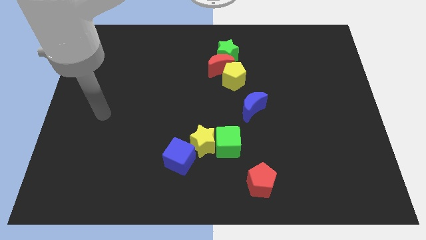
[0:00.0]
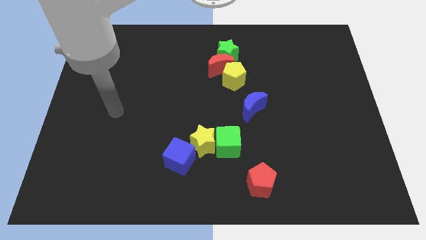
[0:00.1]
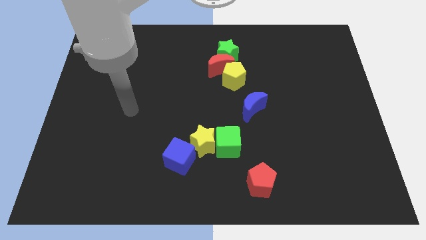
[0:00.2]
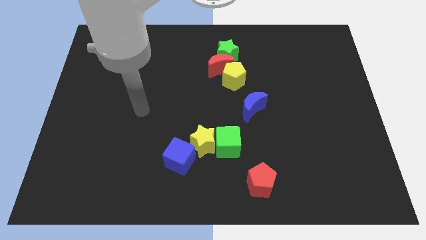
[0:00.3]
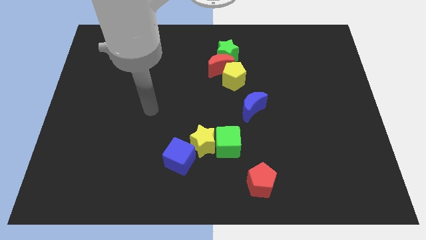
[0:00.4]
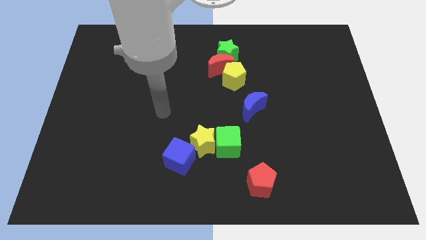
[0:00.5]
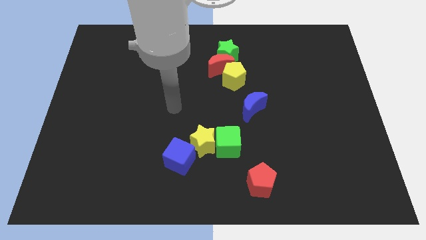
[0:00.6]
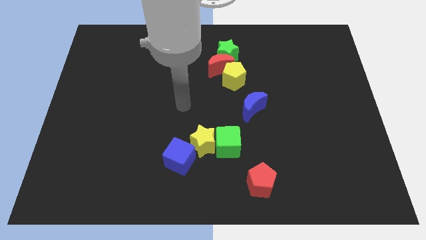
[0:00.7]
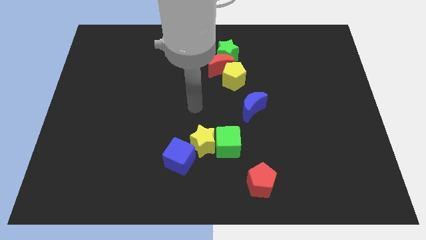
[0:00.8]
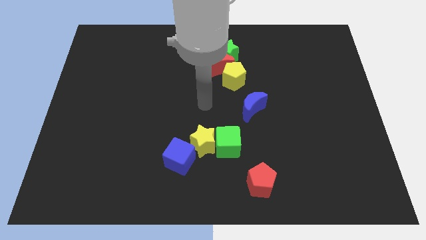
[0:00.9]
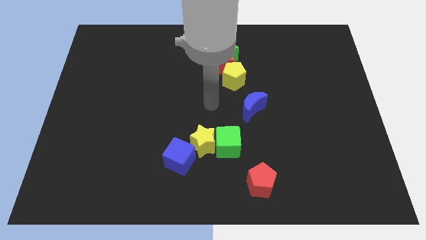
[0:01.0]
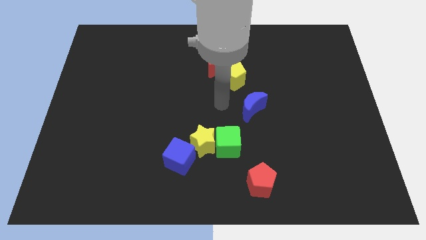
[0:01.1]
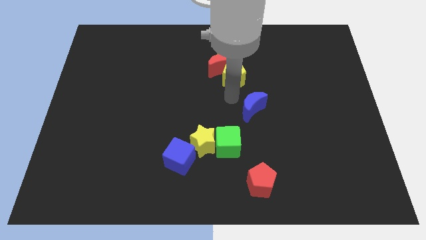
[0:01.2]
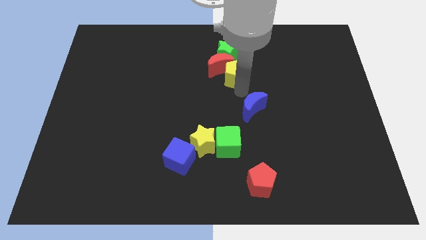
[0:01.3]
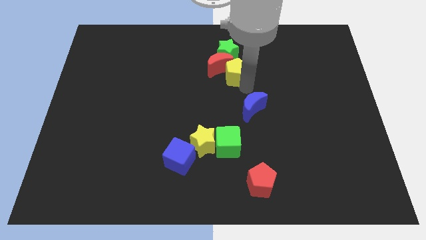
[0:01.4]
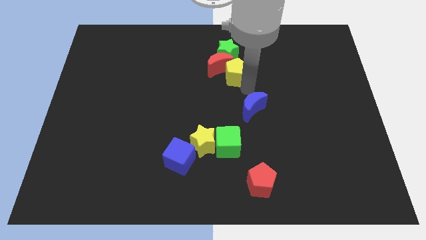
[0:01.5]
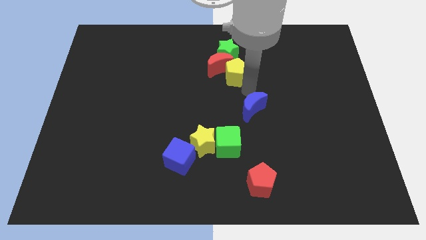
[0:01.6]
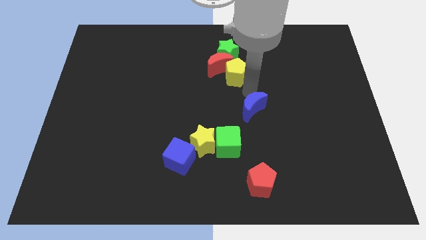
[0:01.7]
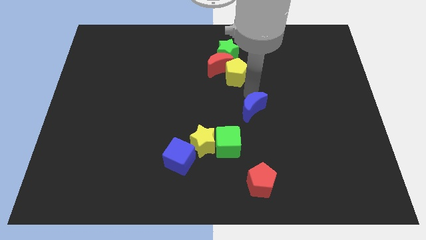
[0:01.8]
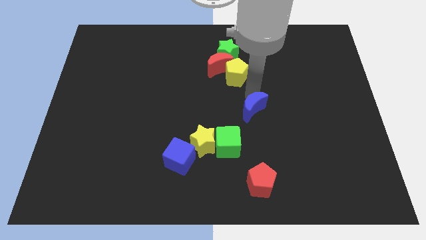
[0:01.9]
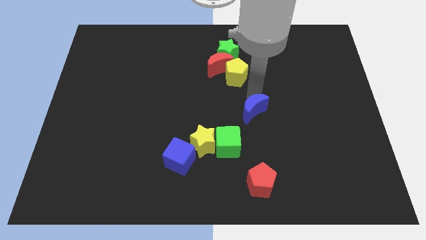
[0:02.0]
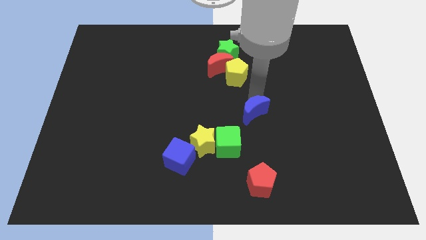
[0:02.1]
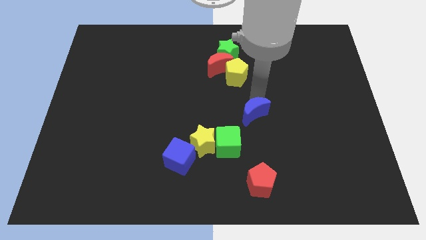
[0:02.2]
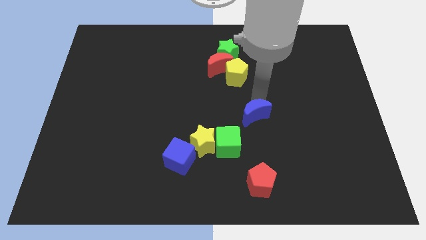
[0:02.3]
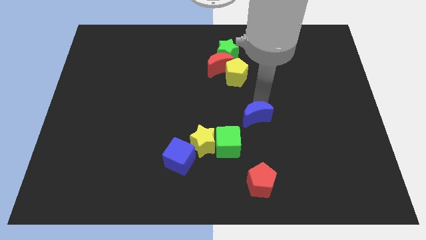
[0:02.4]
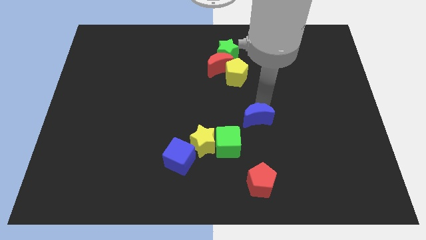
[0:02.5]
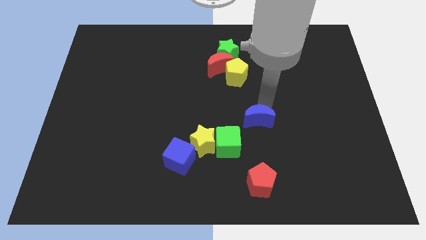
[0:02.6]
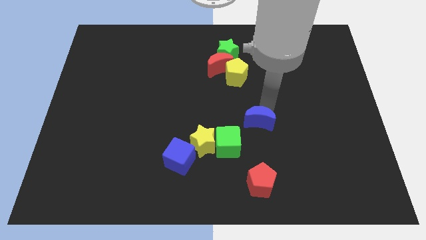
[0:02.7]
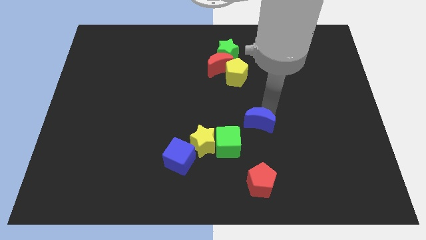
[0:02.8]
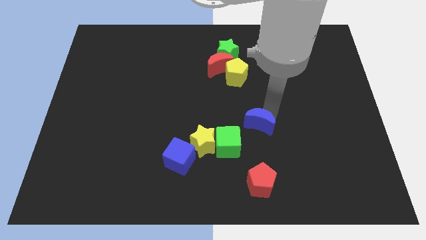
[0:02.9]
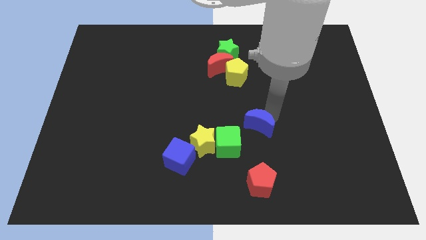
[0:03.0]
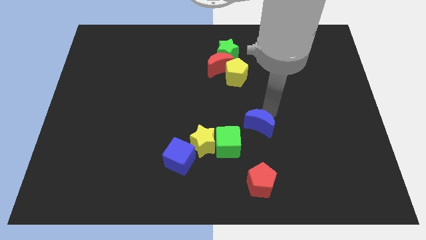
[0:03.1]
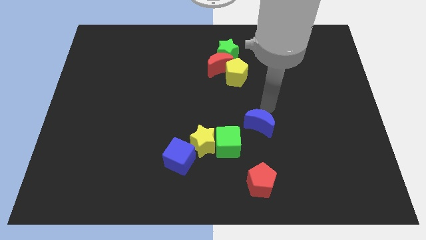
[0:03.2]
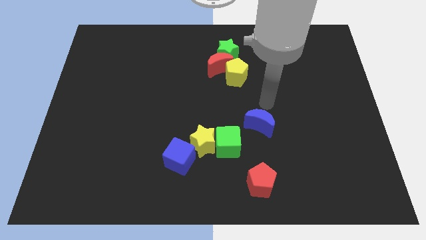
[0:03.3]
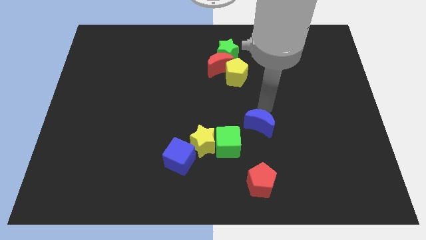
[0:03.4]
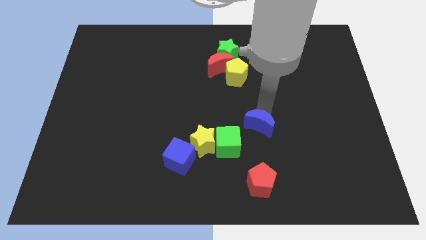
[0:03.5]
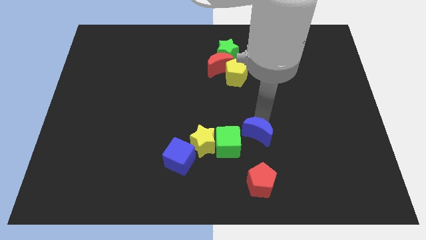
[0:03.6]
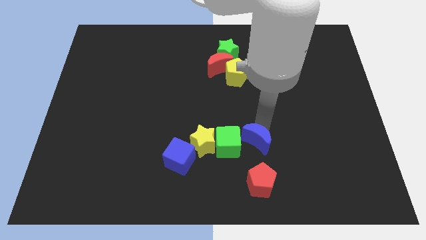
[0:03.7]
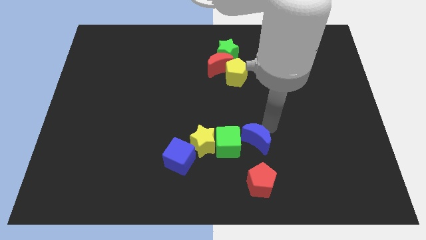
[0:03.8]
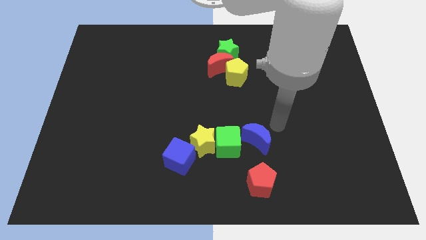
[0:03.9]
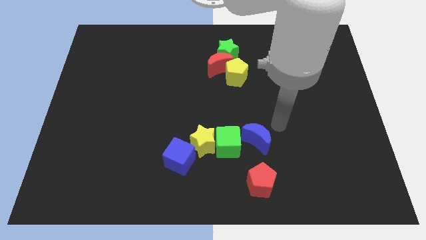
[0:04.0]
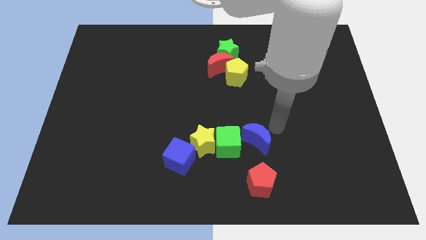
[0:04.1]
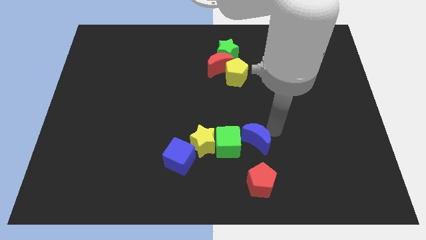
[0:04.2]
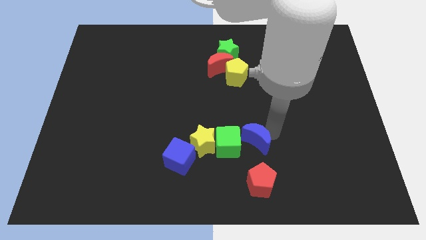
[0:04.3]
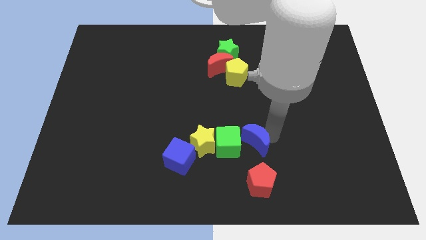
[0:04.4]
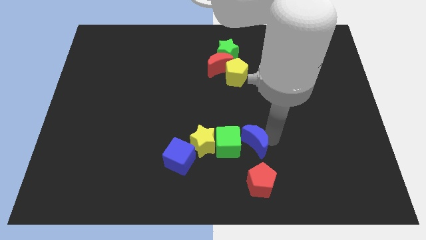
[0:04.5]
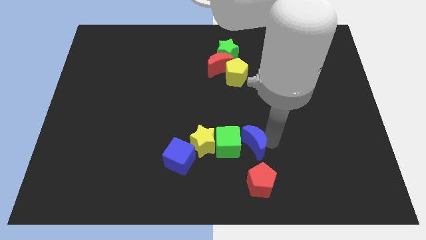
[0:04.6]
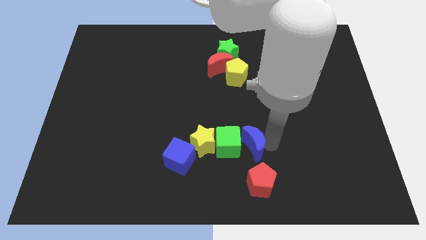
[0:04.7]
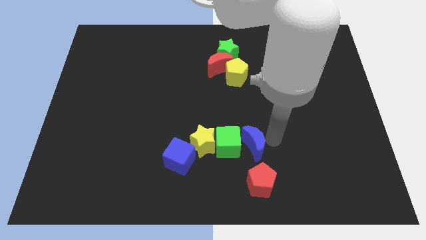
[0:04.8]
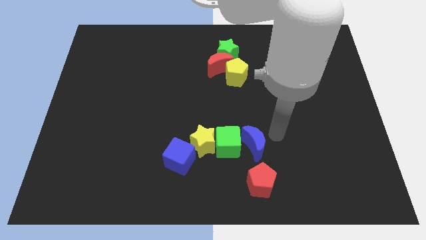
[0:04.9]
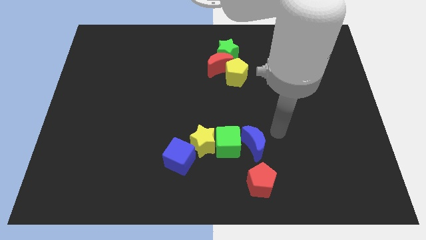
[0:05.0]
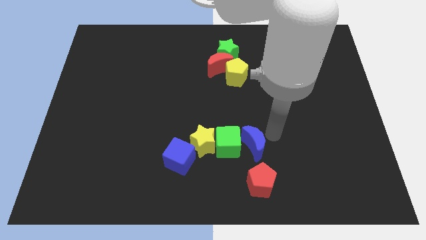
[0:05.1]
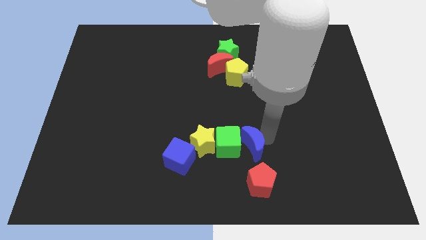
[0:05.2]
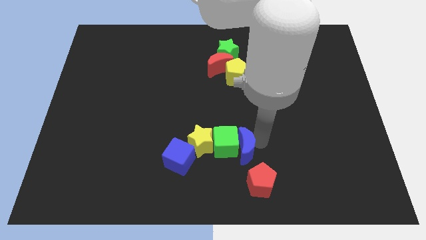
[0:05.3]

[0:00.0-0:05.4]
put the blue moon to the right of the blue cube

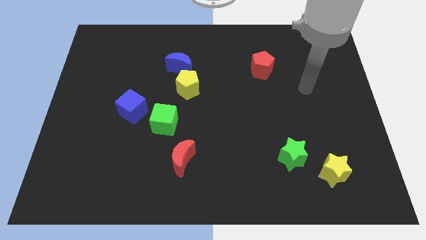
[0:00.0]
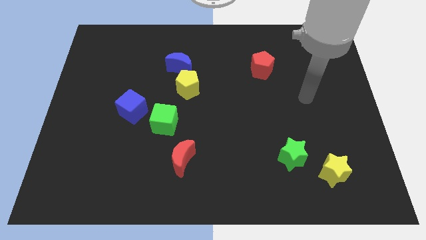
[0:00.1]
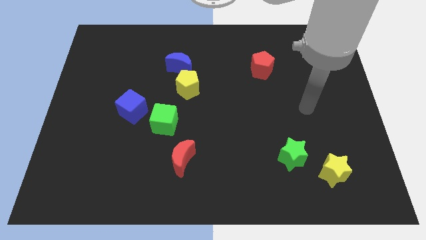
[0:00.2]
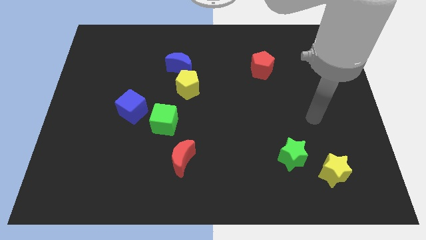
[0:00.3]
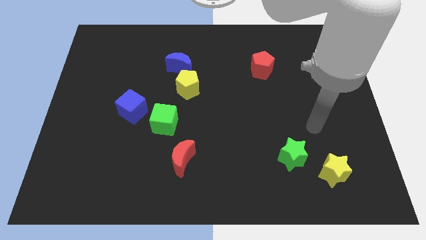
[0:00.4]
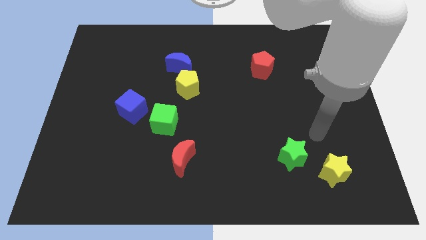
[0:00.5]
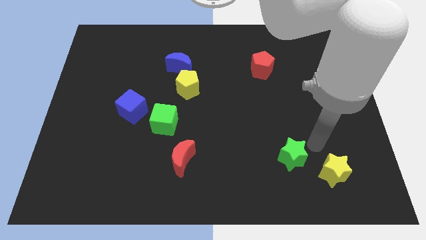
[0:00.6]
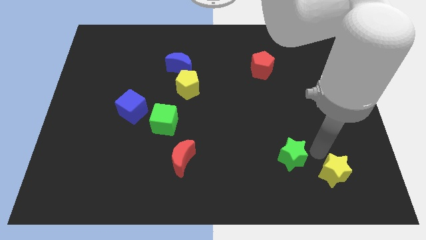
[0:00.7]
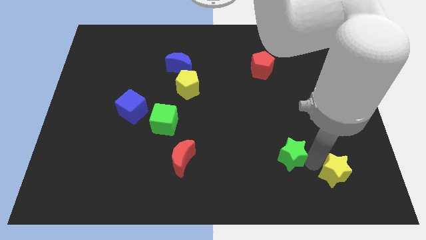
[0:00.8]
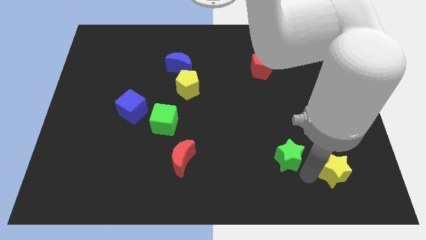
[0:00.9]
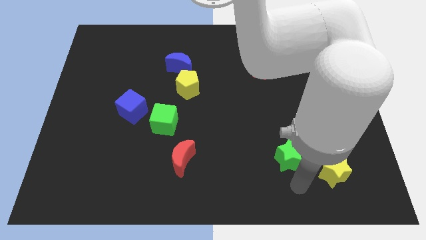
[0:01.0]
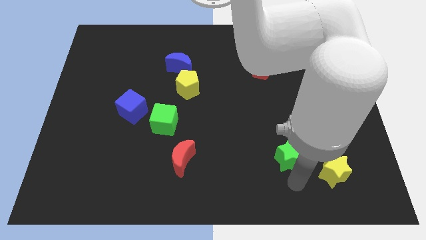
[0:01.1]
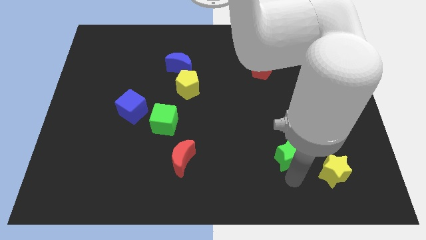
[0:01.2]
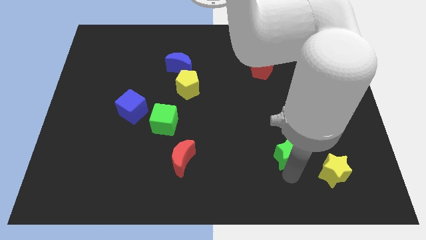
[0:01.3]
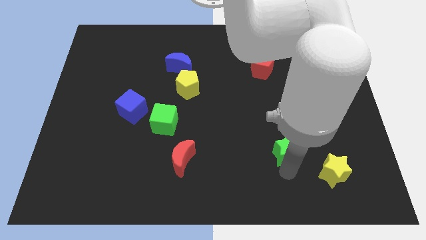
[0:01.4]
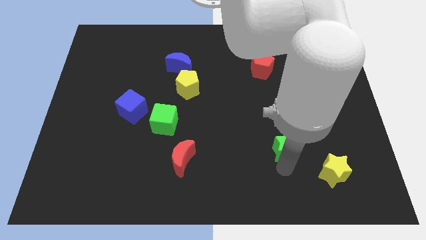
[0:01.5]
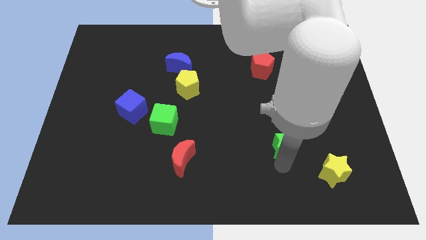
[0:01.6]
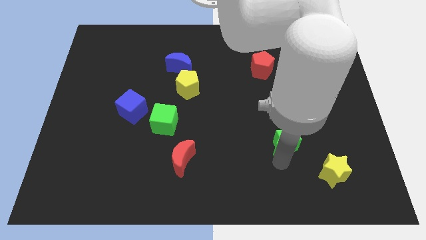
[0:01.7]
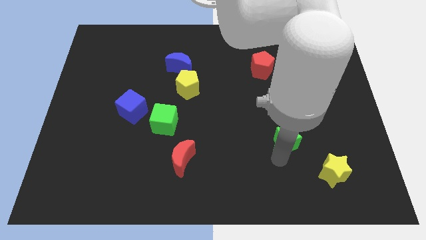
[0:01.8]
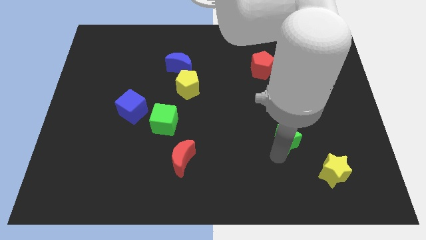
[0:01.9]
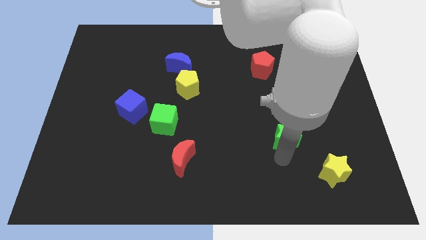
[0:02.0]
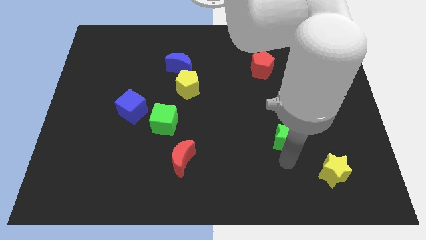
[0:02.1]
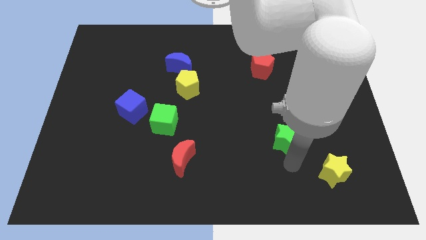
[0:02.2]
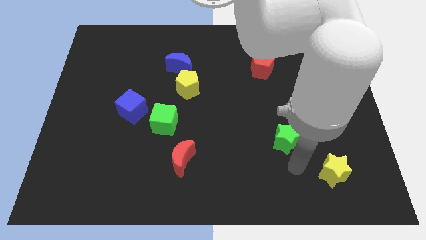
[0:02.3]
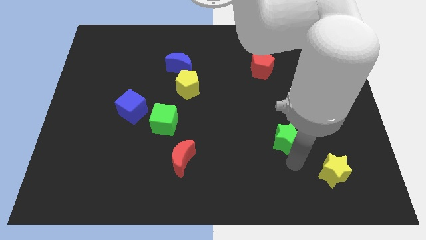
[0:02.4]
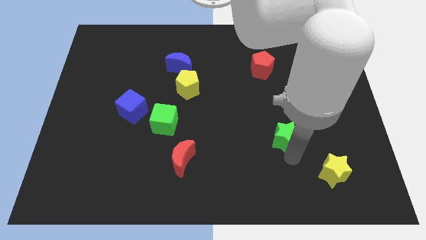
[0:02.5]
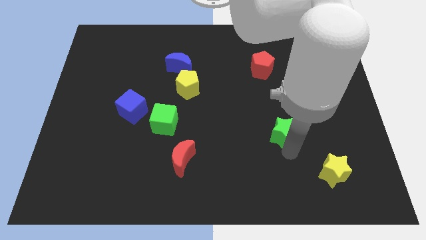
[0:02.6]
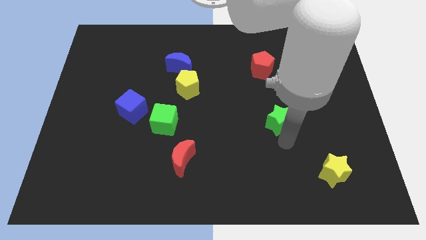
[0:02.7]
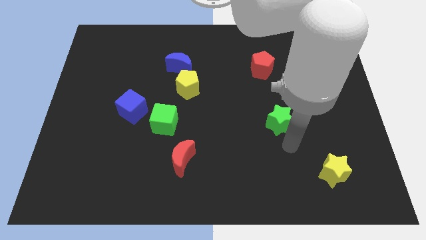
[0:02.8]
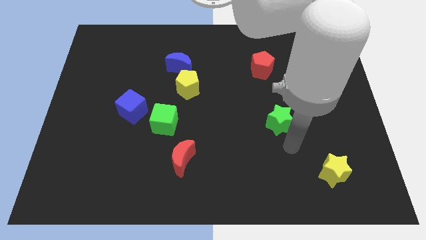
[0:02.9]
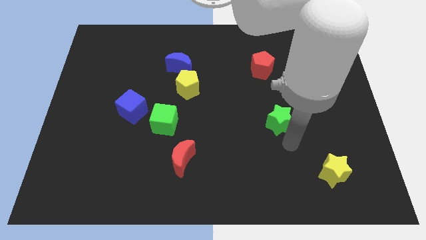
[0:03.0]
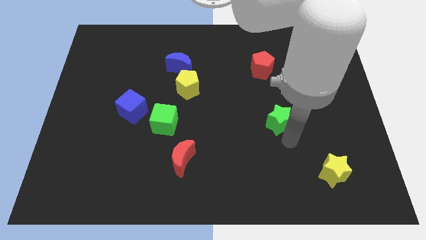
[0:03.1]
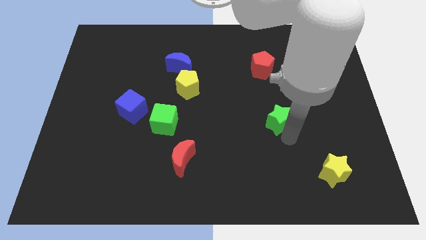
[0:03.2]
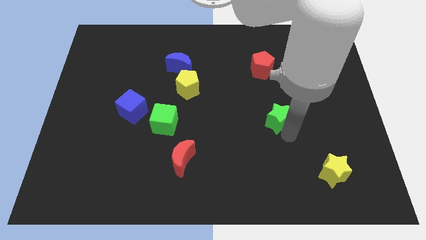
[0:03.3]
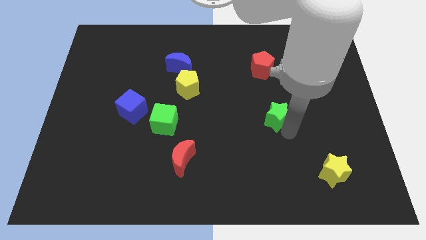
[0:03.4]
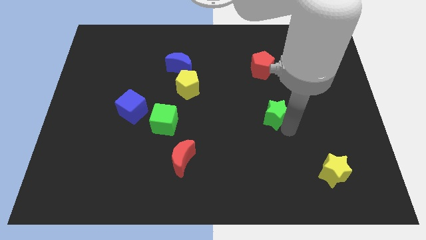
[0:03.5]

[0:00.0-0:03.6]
put the green star below the red pentagon
